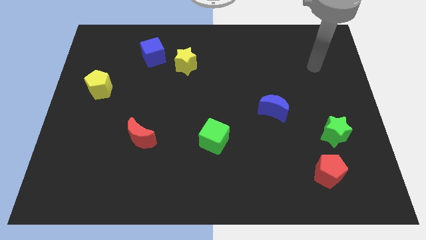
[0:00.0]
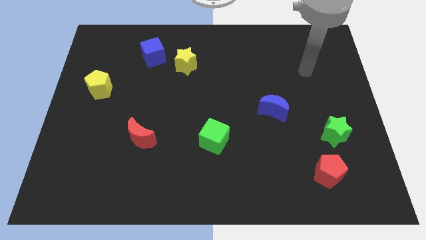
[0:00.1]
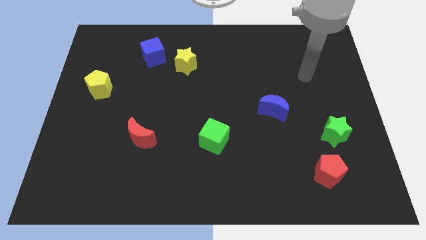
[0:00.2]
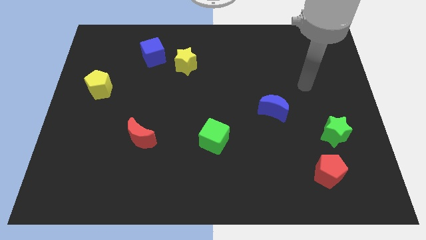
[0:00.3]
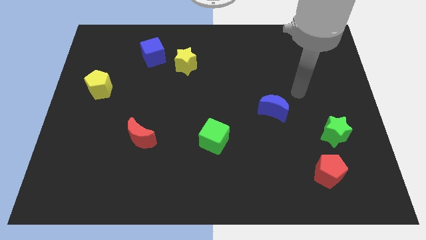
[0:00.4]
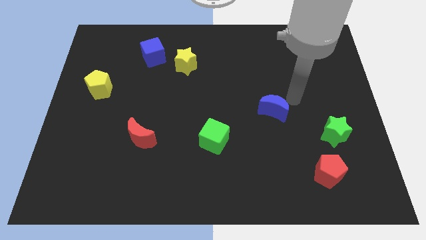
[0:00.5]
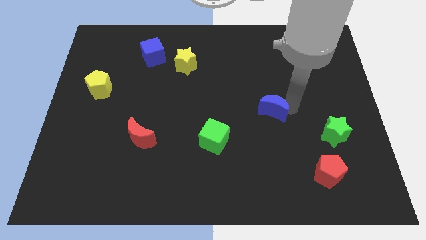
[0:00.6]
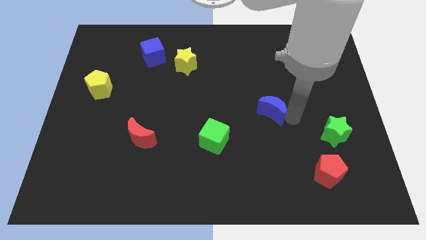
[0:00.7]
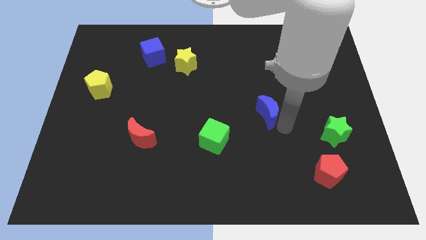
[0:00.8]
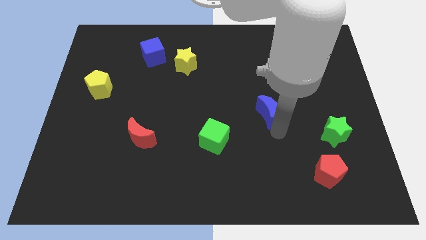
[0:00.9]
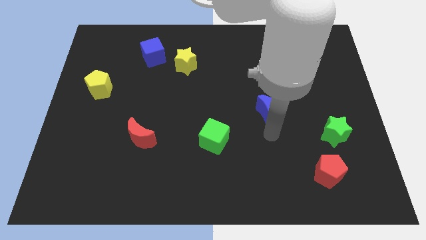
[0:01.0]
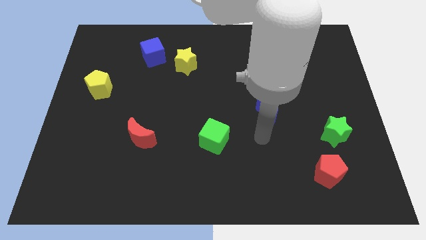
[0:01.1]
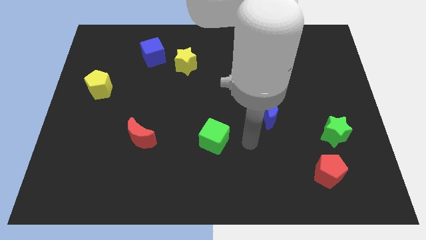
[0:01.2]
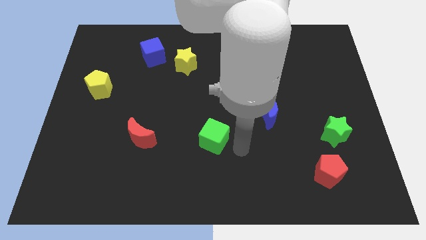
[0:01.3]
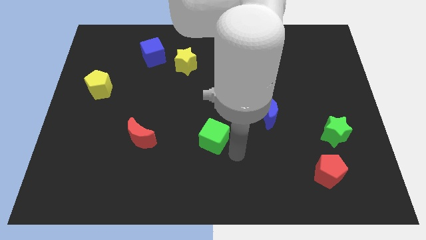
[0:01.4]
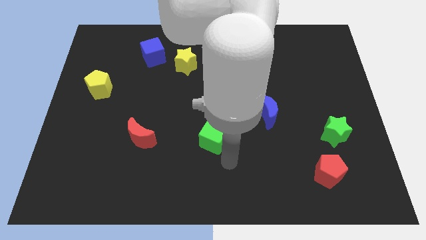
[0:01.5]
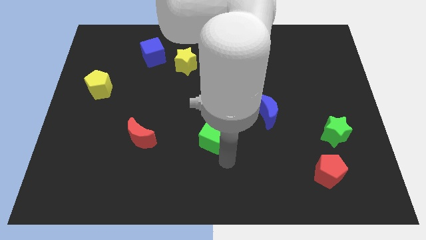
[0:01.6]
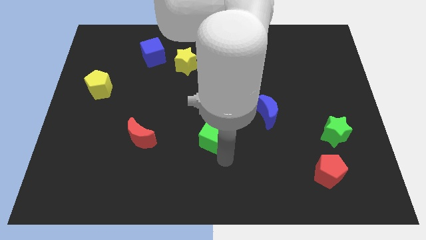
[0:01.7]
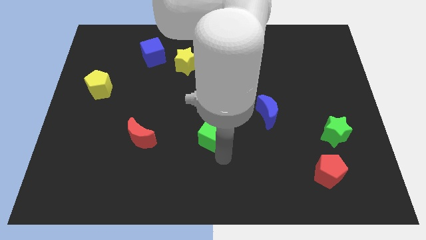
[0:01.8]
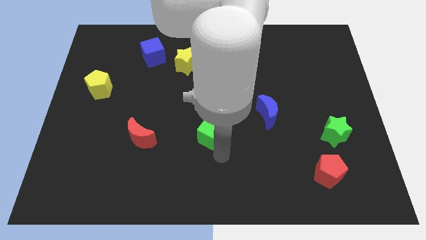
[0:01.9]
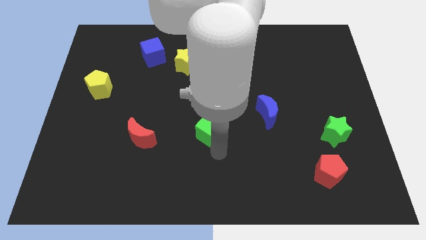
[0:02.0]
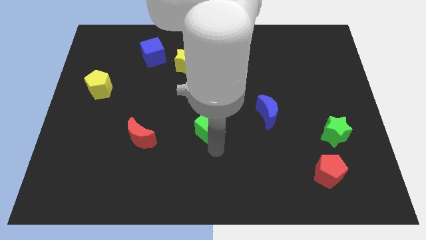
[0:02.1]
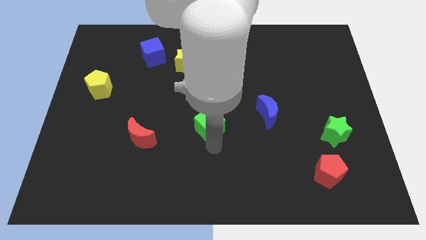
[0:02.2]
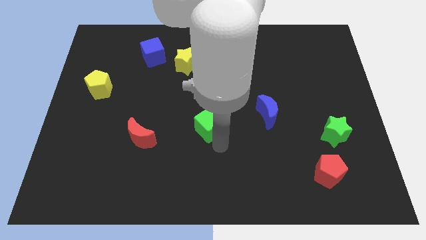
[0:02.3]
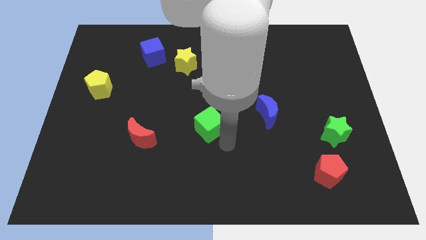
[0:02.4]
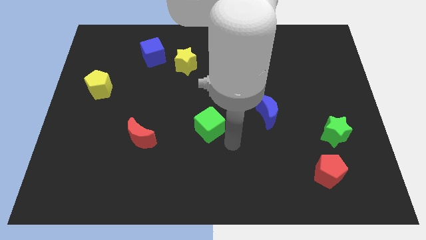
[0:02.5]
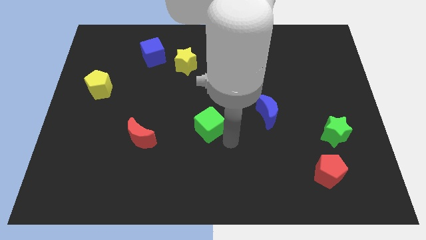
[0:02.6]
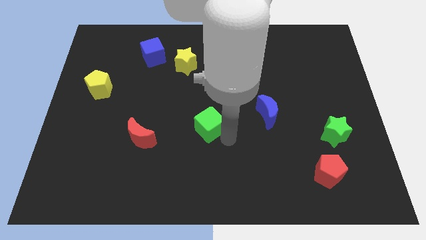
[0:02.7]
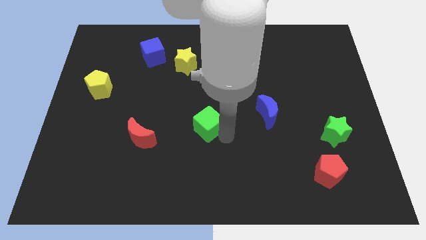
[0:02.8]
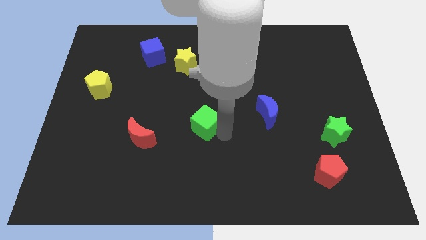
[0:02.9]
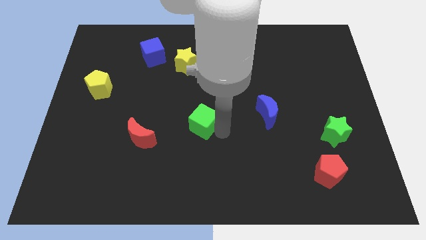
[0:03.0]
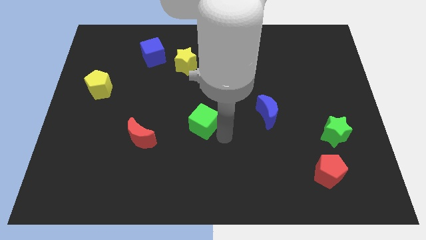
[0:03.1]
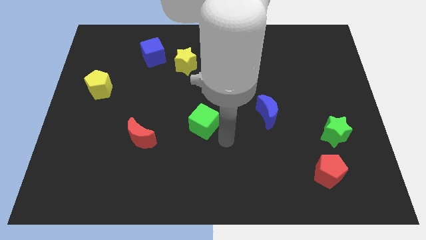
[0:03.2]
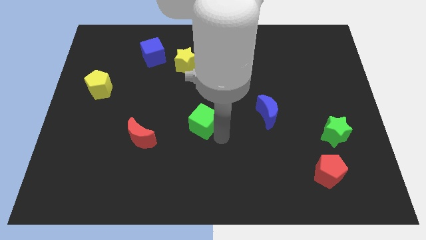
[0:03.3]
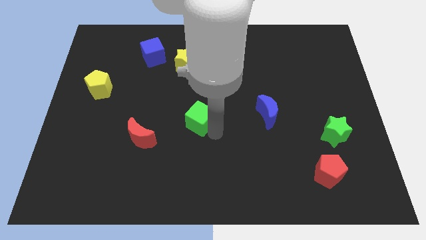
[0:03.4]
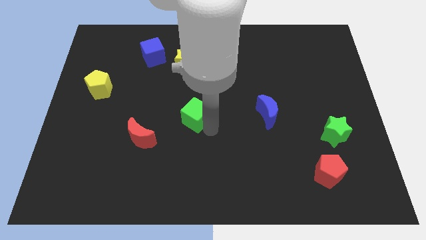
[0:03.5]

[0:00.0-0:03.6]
slide the green cube up and then left somewhat

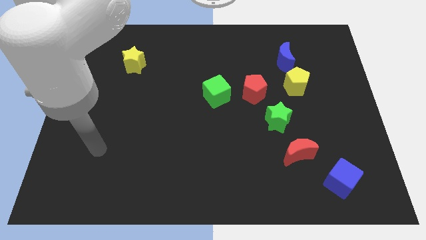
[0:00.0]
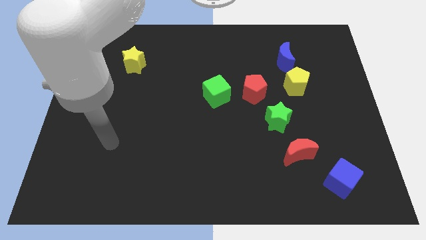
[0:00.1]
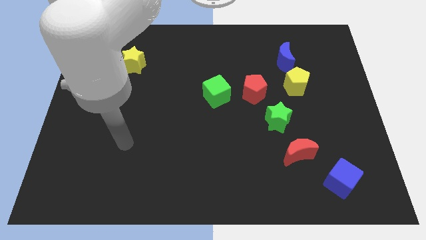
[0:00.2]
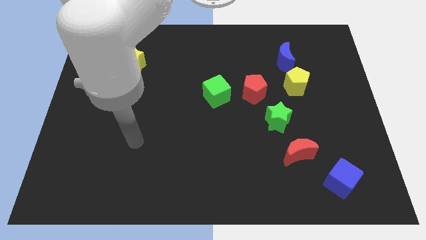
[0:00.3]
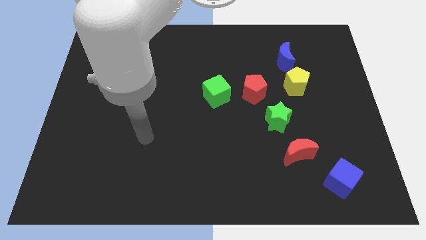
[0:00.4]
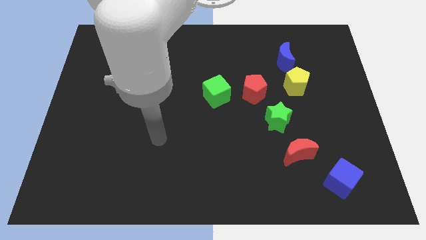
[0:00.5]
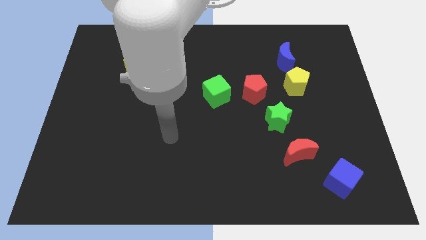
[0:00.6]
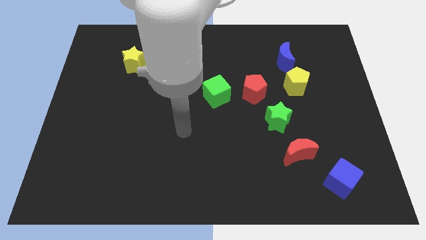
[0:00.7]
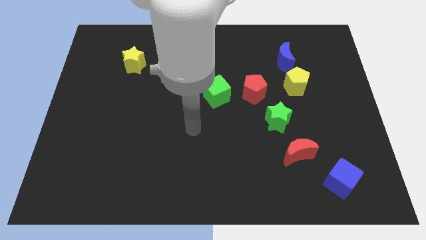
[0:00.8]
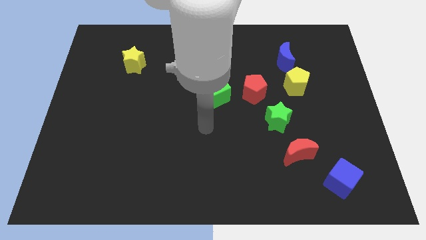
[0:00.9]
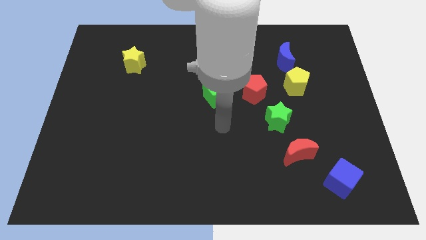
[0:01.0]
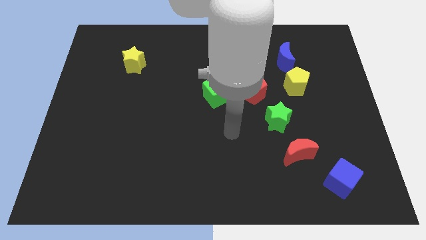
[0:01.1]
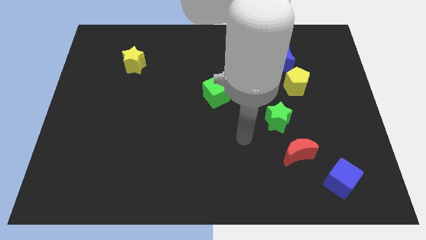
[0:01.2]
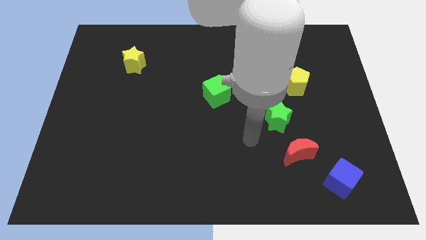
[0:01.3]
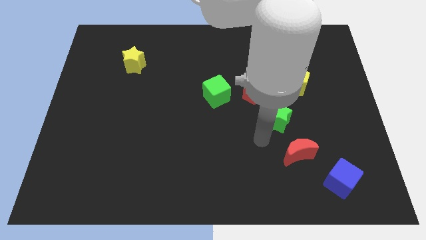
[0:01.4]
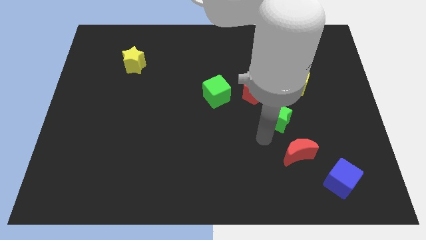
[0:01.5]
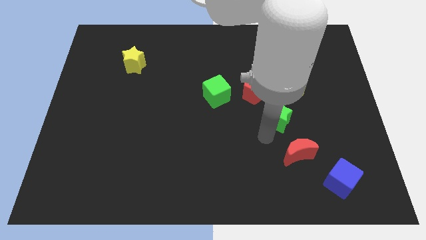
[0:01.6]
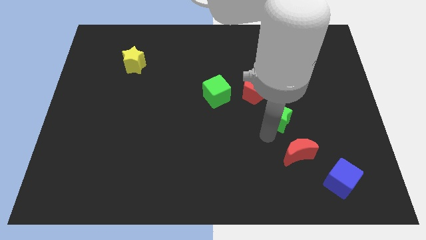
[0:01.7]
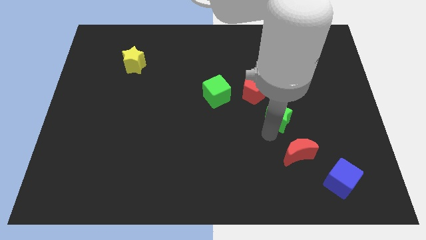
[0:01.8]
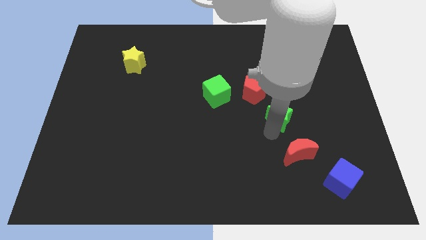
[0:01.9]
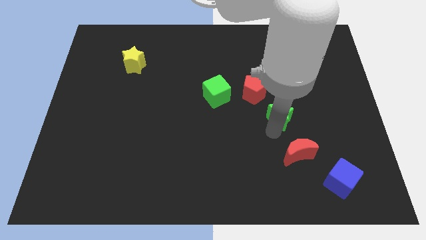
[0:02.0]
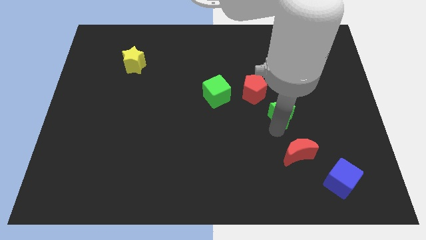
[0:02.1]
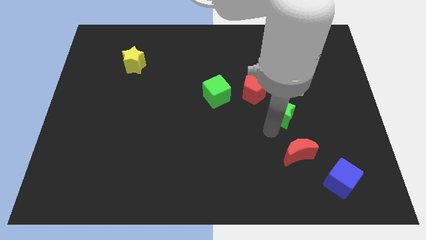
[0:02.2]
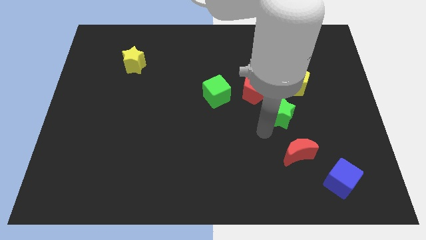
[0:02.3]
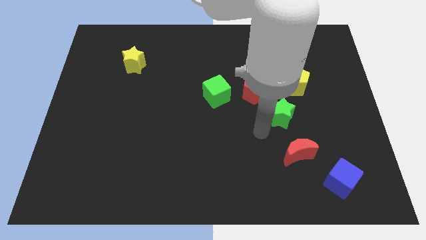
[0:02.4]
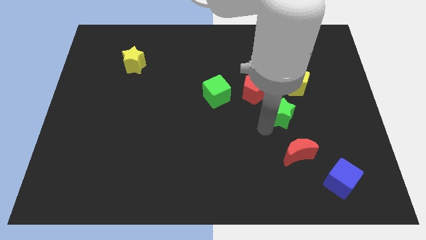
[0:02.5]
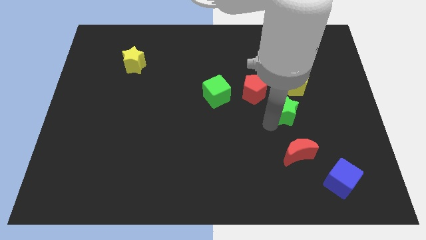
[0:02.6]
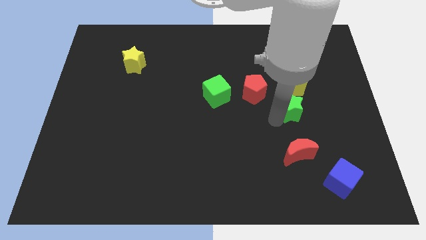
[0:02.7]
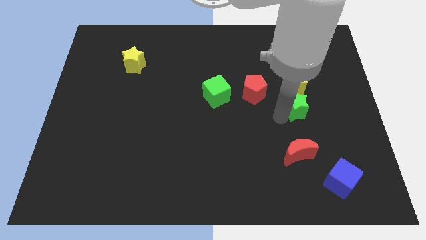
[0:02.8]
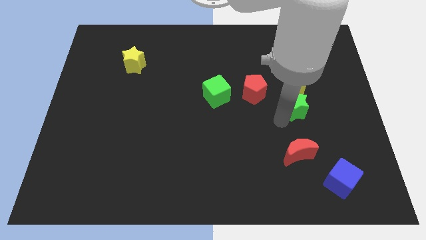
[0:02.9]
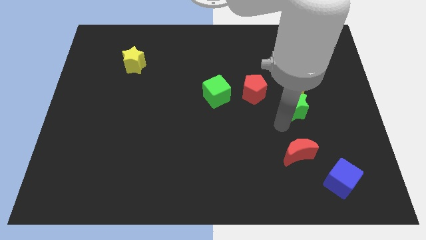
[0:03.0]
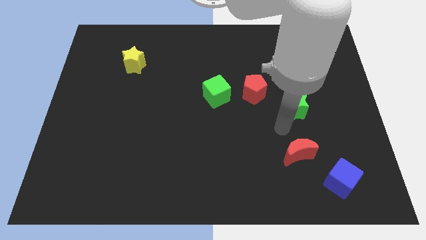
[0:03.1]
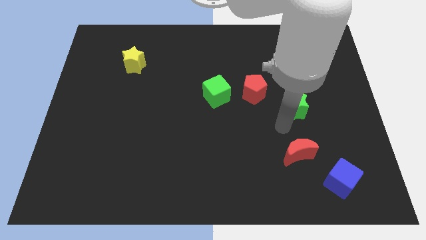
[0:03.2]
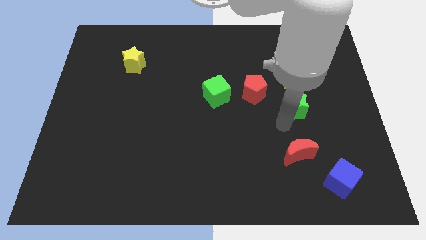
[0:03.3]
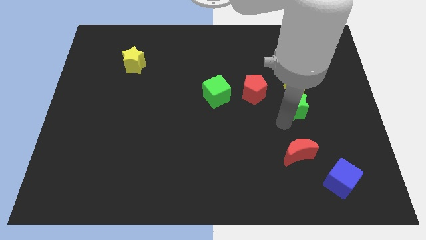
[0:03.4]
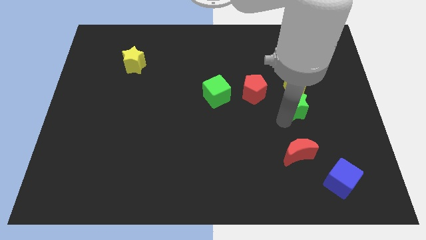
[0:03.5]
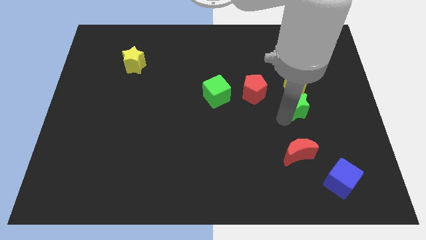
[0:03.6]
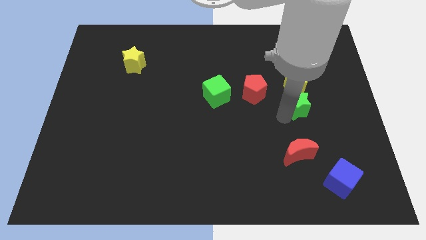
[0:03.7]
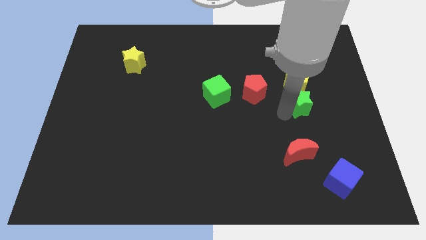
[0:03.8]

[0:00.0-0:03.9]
slightly push the green star up and right diagonally

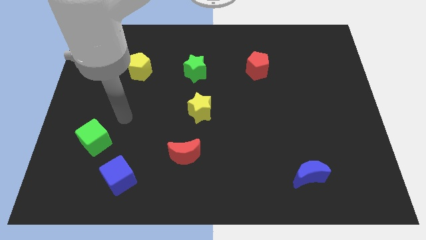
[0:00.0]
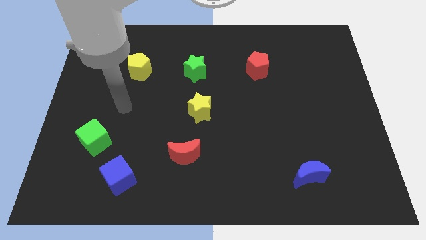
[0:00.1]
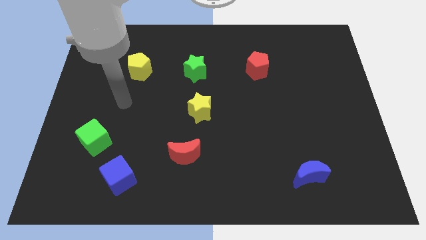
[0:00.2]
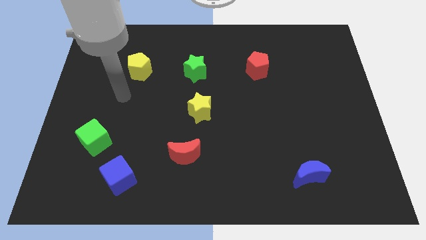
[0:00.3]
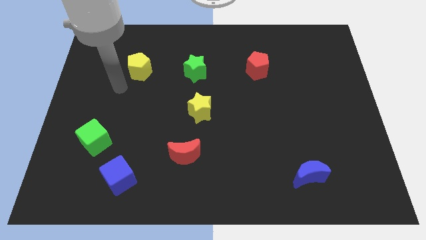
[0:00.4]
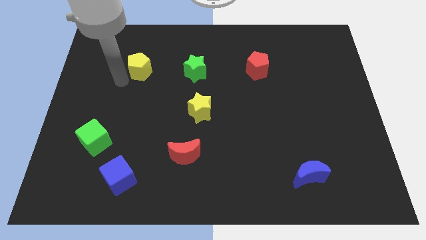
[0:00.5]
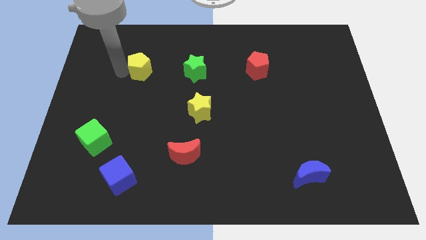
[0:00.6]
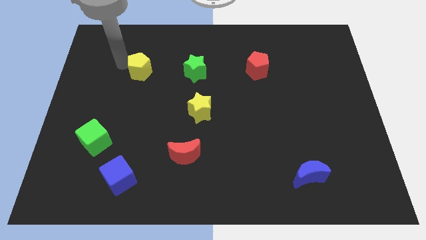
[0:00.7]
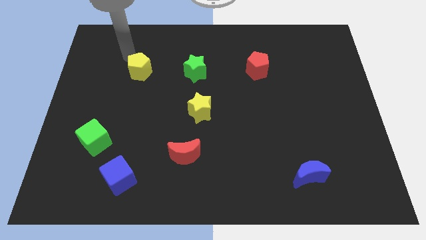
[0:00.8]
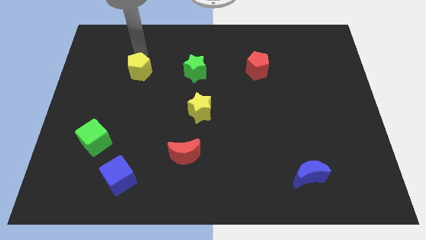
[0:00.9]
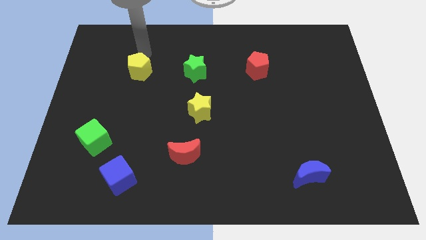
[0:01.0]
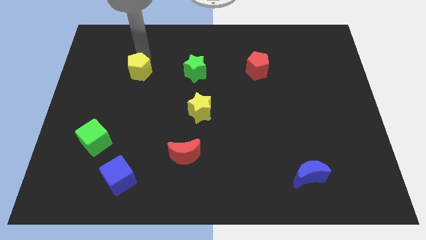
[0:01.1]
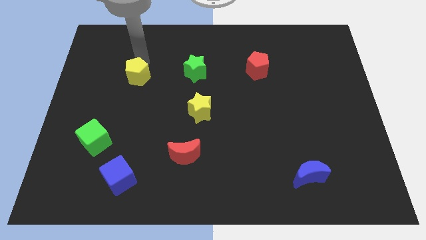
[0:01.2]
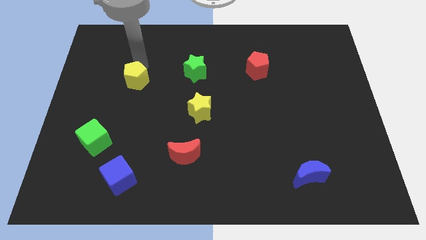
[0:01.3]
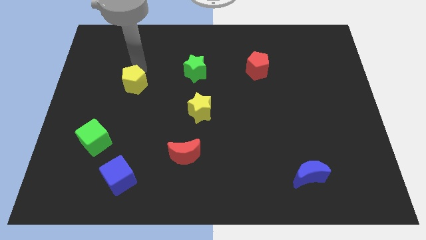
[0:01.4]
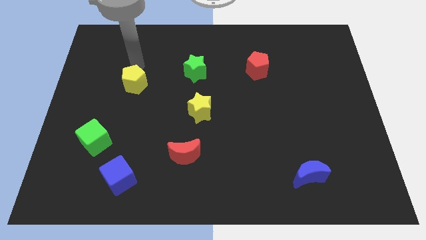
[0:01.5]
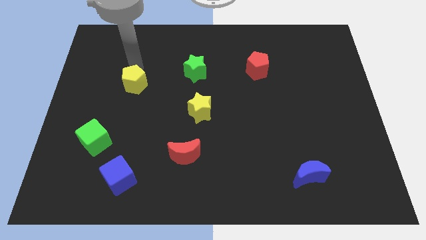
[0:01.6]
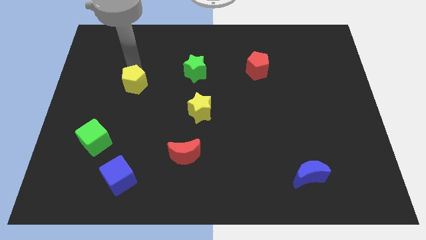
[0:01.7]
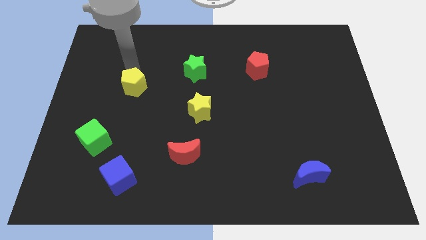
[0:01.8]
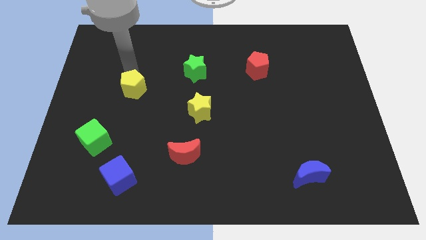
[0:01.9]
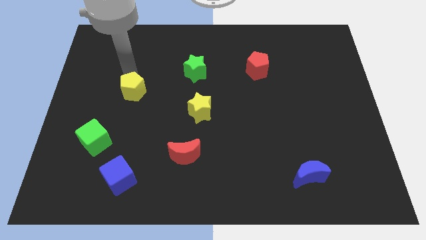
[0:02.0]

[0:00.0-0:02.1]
slide the yellow pentagon somewhat downwards
